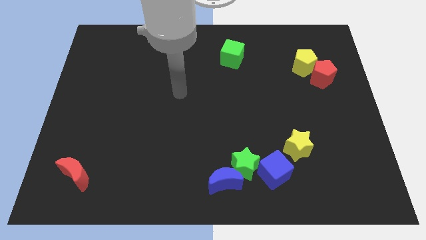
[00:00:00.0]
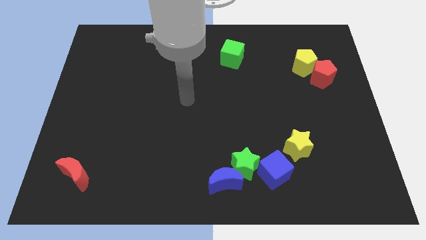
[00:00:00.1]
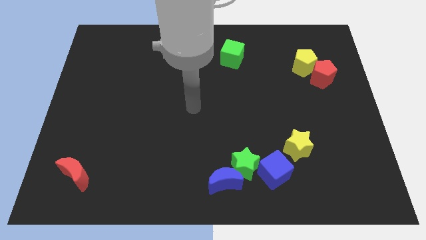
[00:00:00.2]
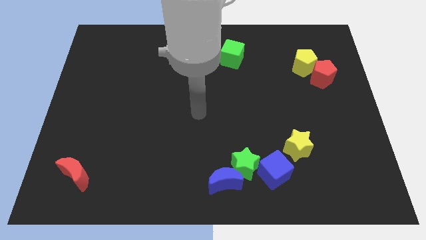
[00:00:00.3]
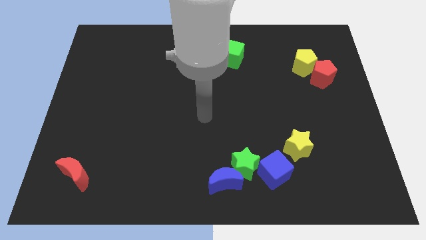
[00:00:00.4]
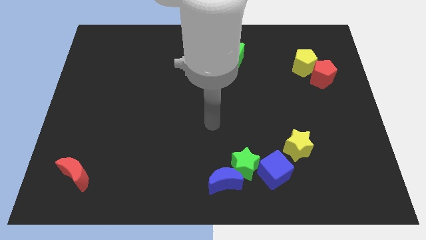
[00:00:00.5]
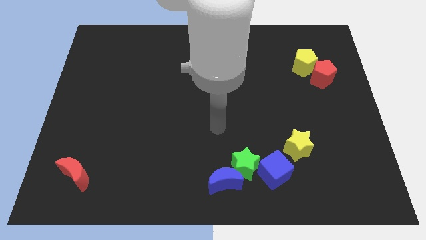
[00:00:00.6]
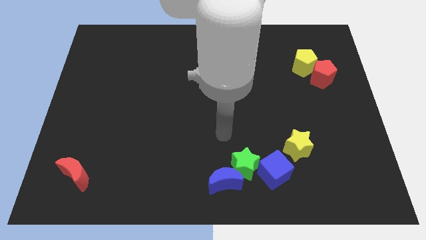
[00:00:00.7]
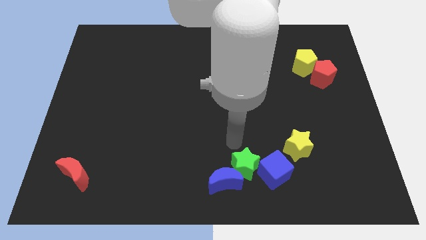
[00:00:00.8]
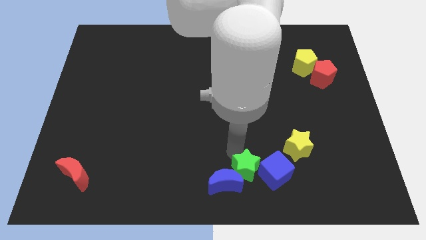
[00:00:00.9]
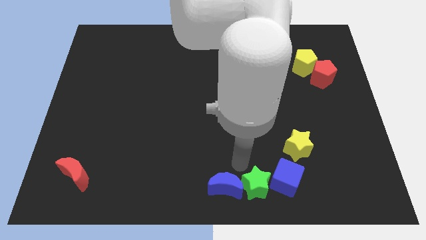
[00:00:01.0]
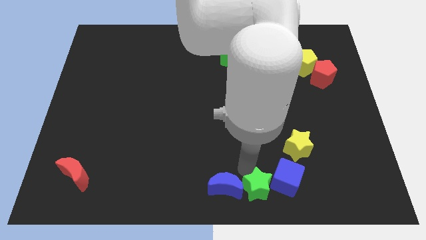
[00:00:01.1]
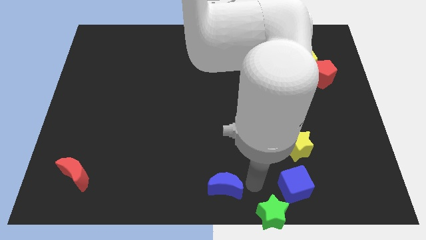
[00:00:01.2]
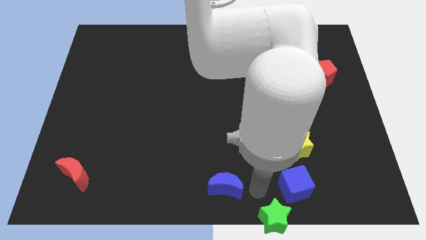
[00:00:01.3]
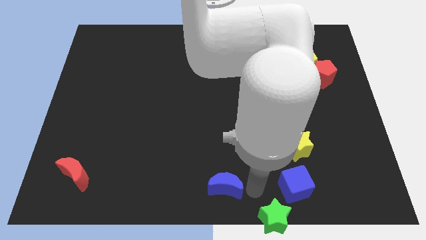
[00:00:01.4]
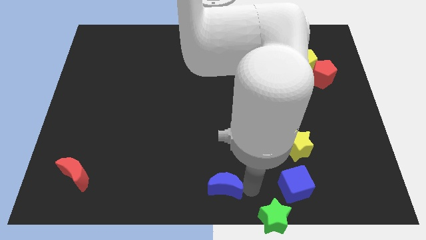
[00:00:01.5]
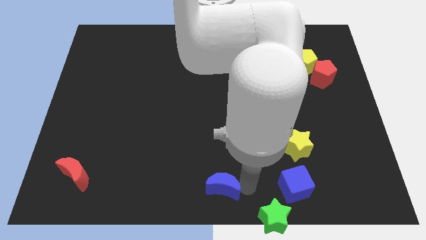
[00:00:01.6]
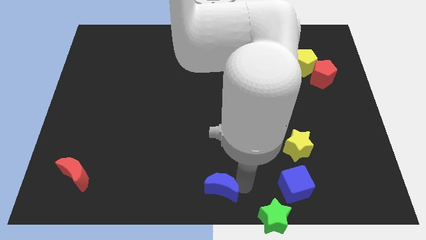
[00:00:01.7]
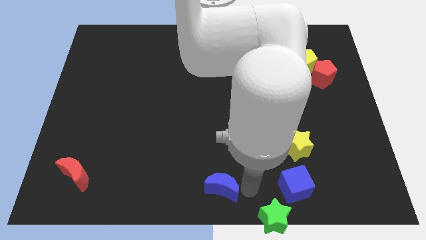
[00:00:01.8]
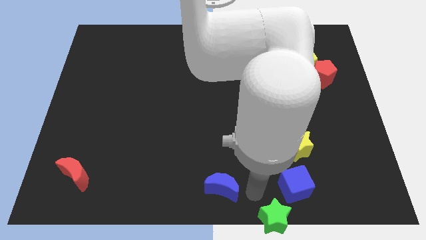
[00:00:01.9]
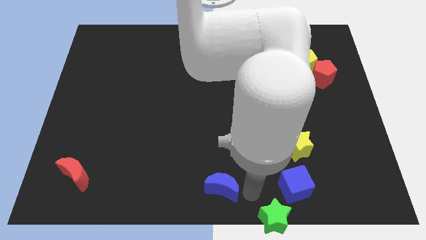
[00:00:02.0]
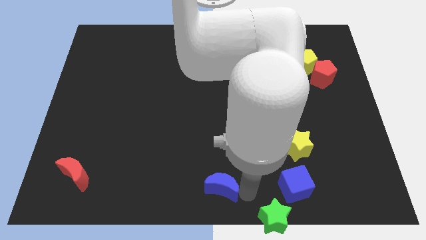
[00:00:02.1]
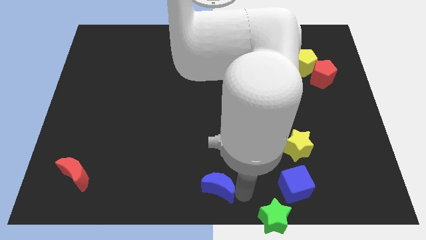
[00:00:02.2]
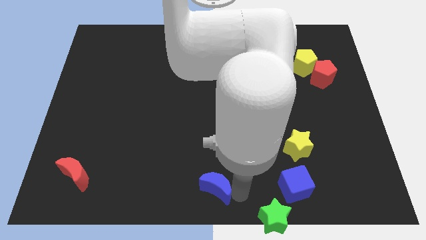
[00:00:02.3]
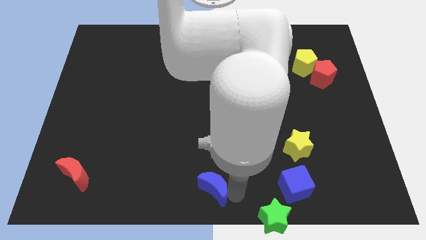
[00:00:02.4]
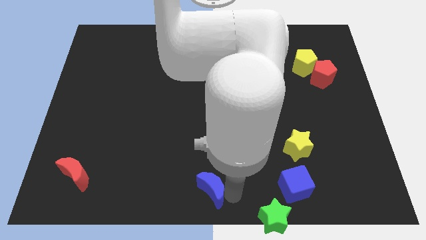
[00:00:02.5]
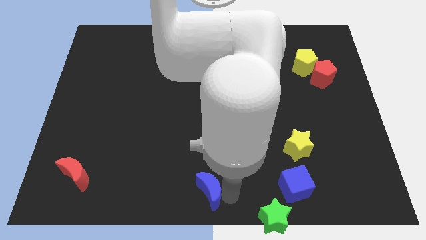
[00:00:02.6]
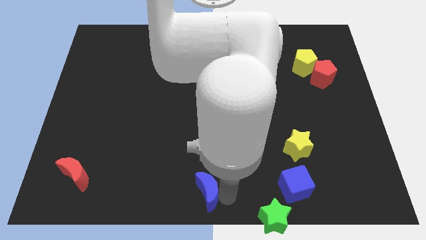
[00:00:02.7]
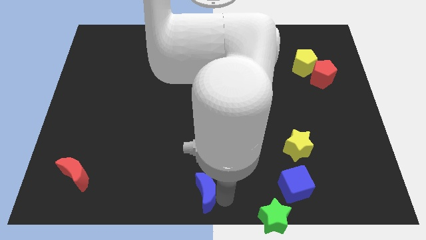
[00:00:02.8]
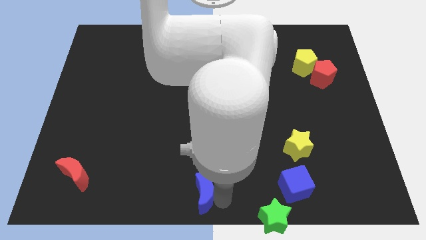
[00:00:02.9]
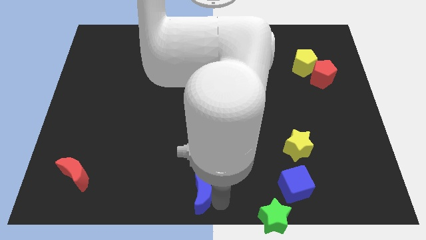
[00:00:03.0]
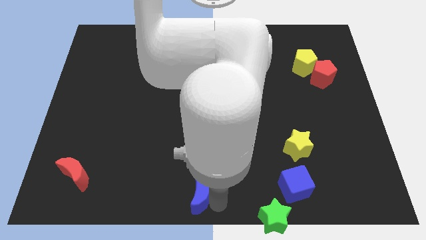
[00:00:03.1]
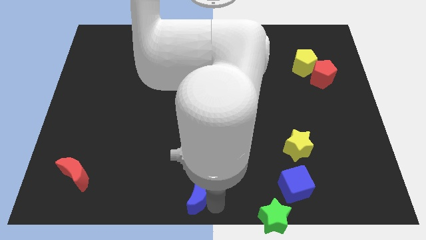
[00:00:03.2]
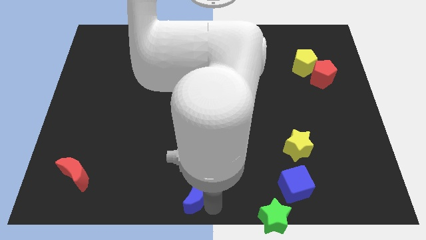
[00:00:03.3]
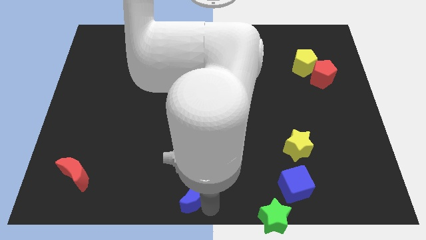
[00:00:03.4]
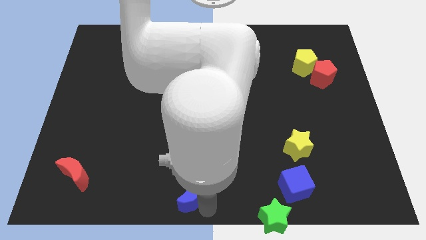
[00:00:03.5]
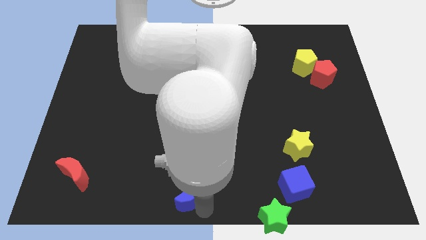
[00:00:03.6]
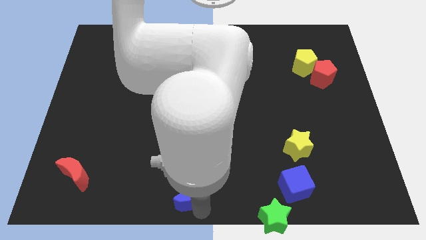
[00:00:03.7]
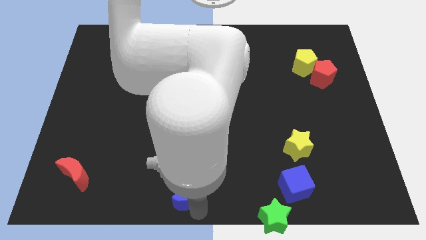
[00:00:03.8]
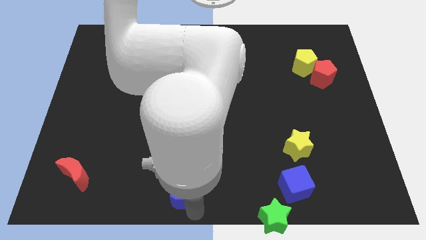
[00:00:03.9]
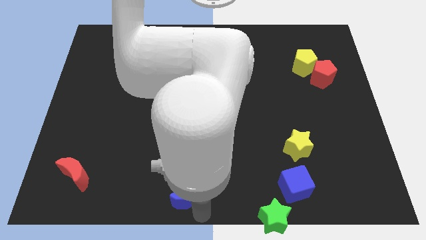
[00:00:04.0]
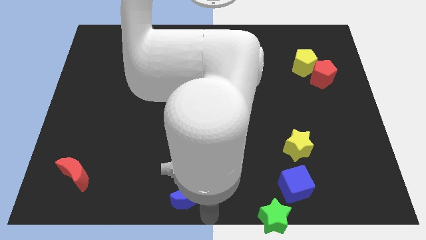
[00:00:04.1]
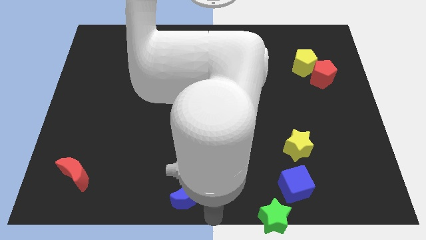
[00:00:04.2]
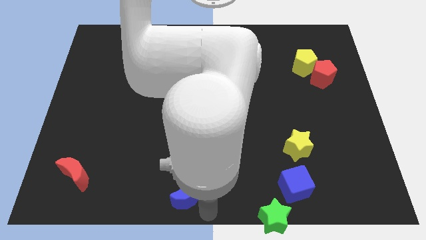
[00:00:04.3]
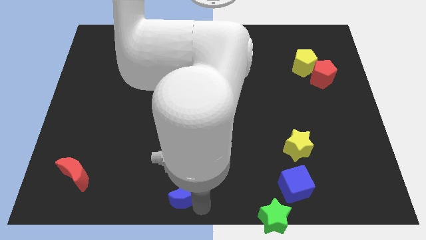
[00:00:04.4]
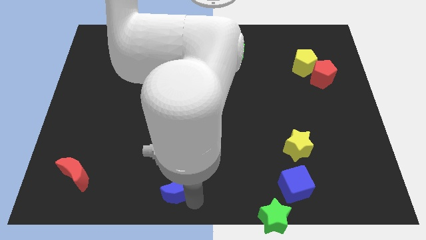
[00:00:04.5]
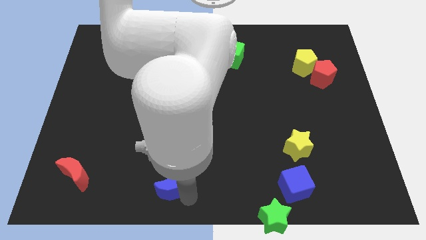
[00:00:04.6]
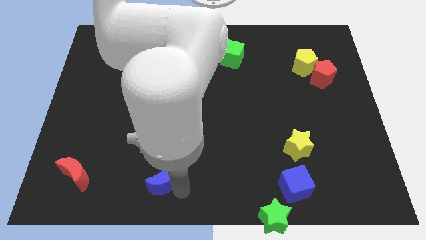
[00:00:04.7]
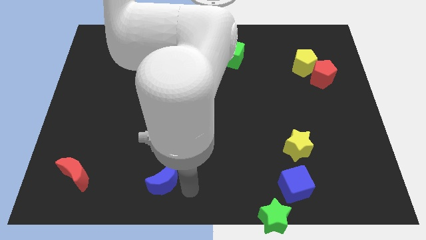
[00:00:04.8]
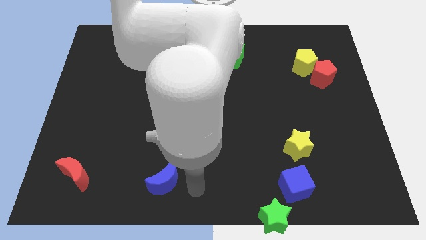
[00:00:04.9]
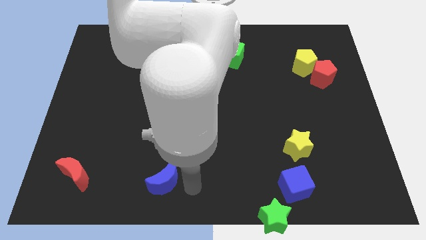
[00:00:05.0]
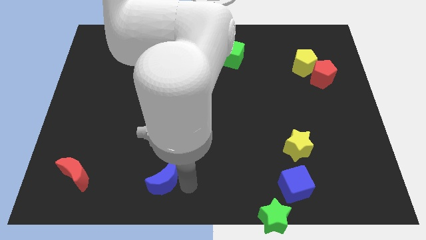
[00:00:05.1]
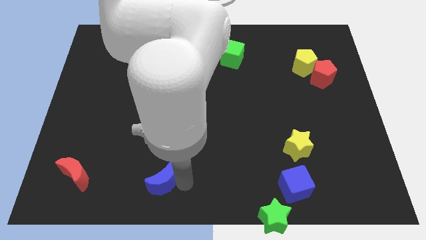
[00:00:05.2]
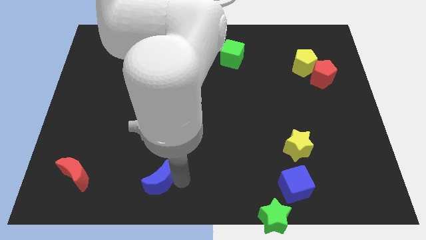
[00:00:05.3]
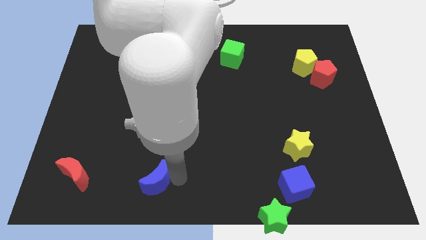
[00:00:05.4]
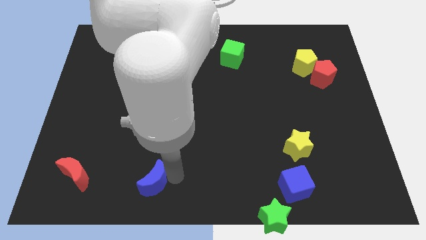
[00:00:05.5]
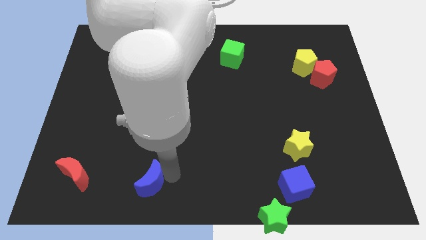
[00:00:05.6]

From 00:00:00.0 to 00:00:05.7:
put the blue moon right of the red moon

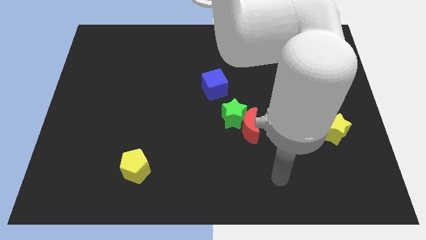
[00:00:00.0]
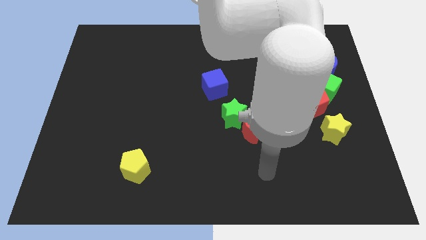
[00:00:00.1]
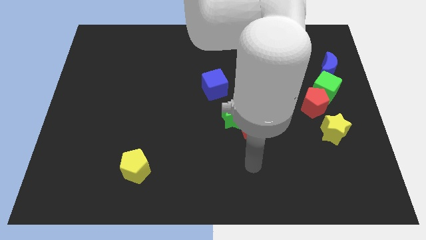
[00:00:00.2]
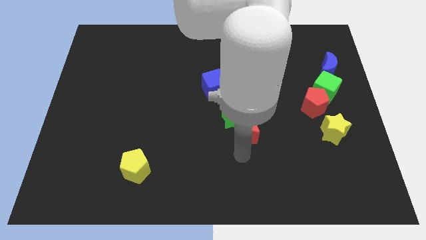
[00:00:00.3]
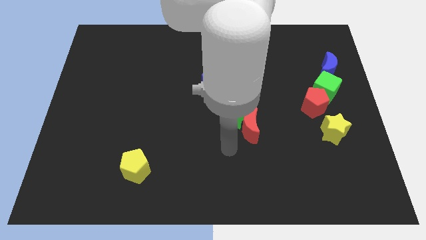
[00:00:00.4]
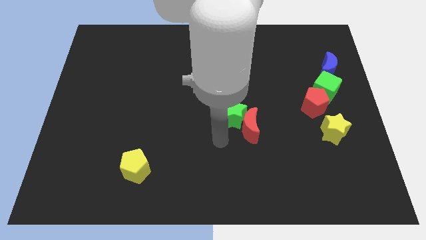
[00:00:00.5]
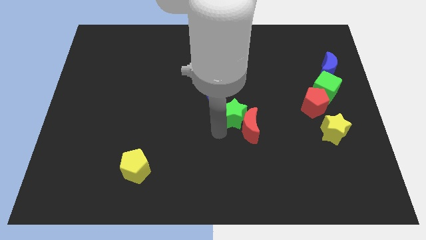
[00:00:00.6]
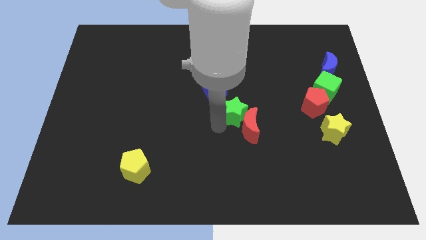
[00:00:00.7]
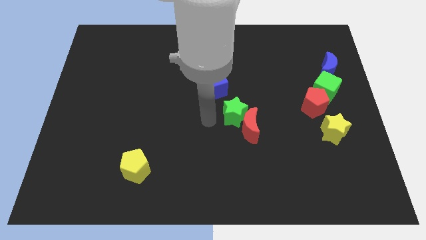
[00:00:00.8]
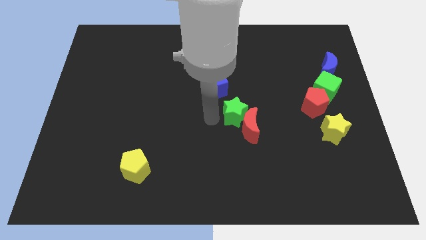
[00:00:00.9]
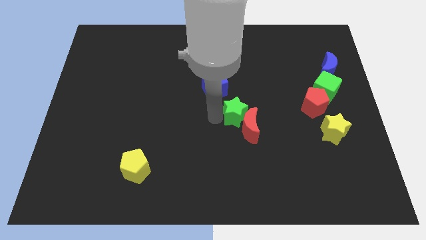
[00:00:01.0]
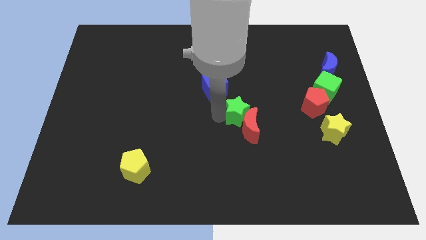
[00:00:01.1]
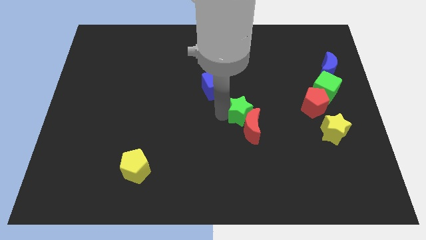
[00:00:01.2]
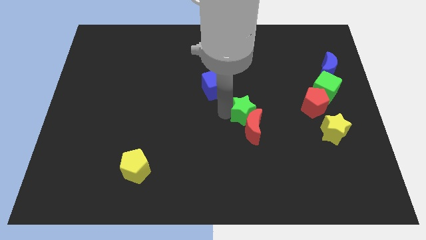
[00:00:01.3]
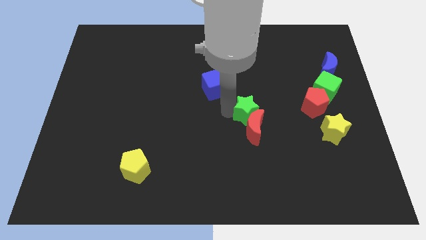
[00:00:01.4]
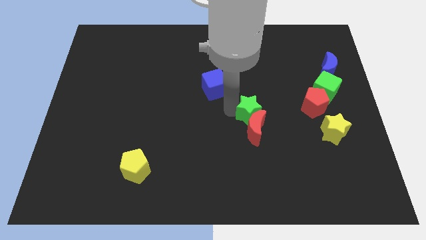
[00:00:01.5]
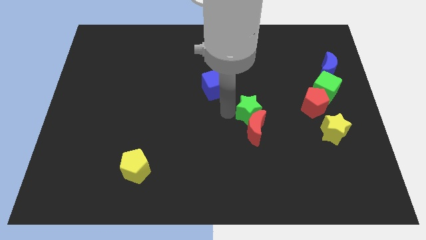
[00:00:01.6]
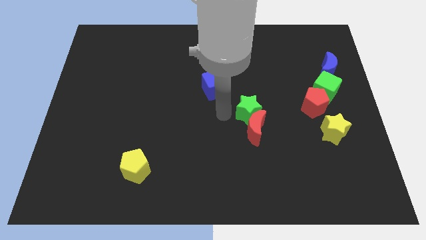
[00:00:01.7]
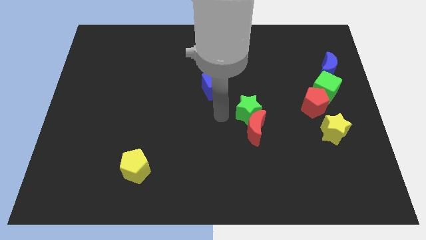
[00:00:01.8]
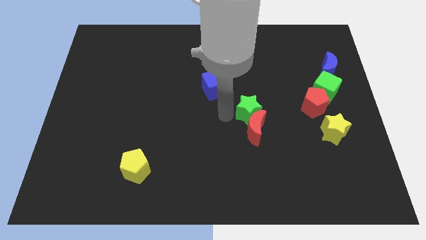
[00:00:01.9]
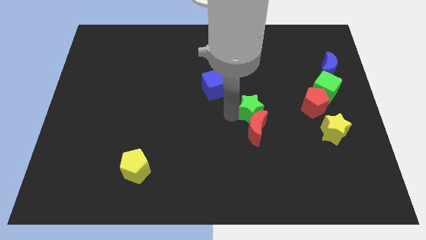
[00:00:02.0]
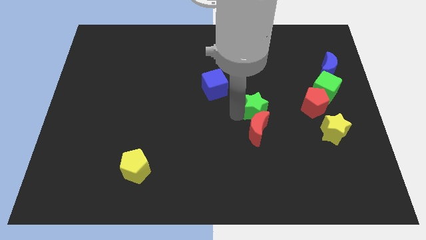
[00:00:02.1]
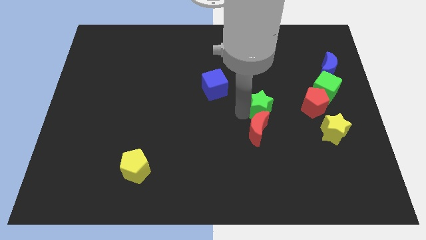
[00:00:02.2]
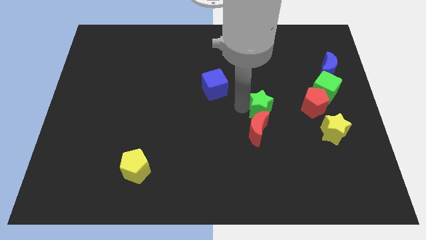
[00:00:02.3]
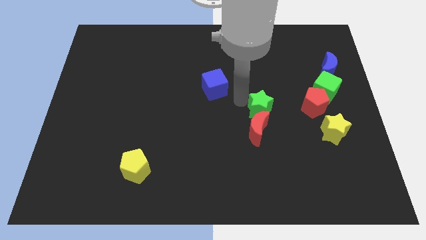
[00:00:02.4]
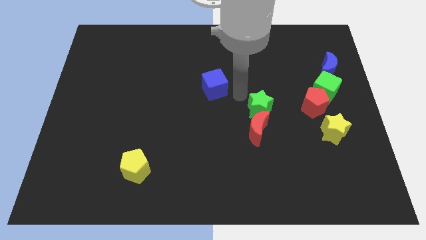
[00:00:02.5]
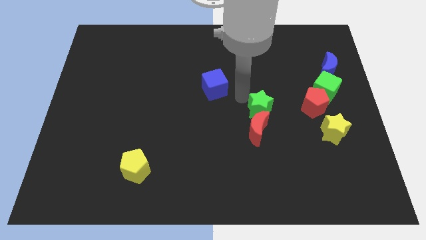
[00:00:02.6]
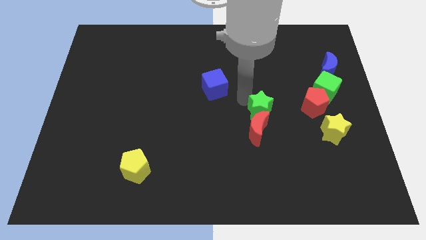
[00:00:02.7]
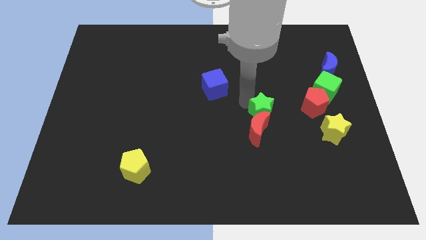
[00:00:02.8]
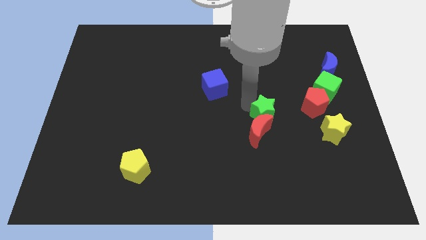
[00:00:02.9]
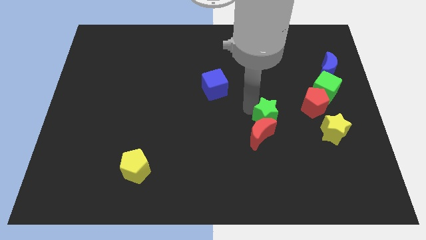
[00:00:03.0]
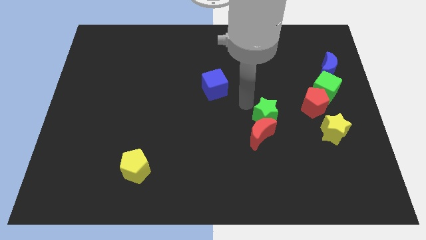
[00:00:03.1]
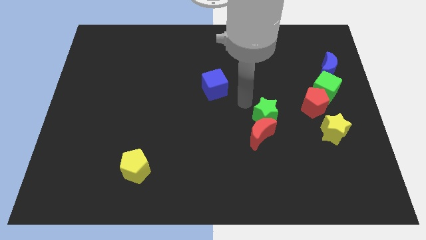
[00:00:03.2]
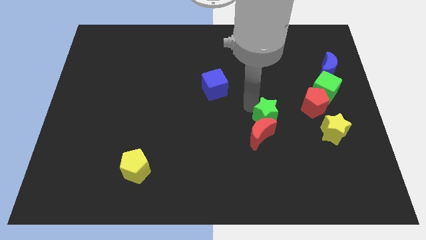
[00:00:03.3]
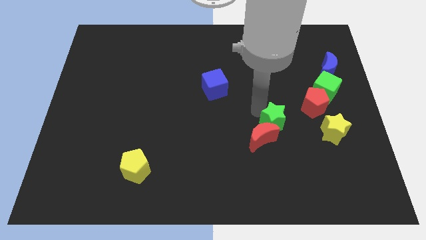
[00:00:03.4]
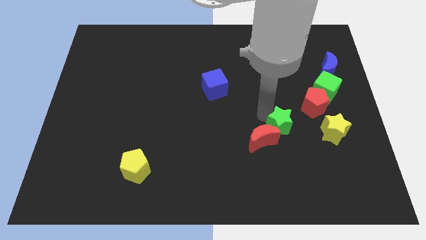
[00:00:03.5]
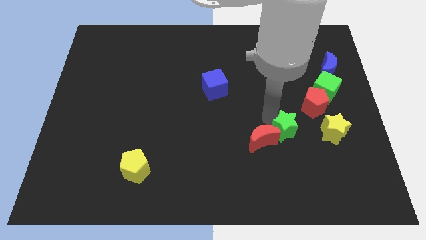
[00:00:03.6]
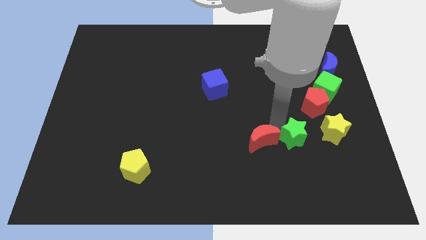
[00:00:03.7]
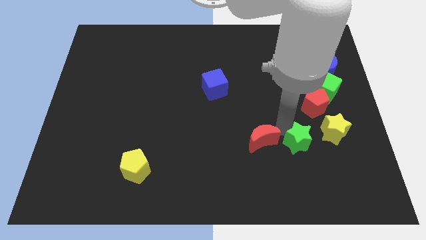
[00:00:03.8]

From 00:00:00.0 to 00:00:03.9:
push the green star diagonally down and to the left of the yellow star
